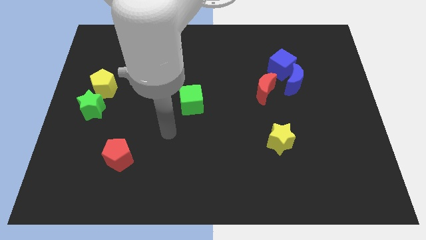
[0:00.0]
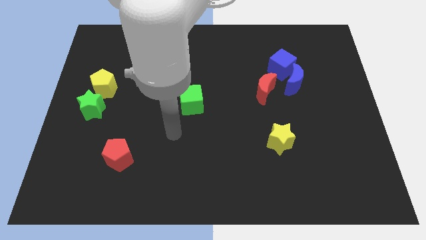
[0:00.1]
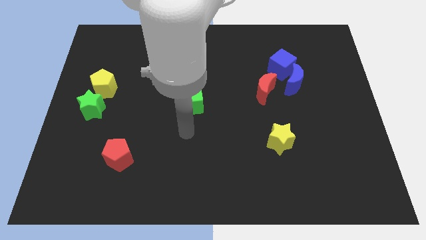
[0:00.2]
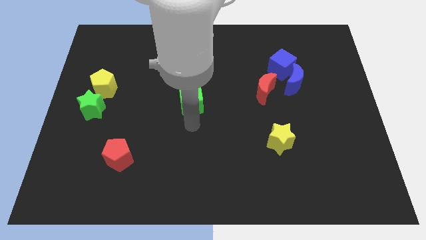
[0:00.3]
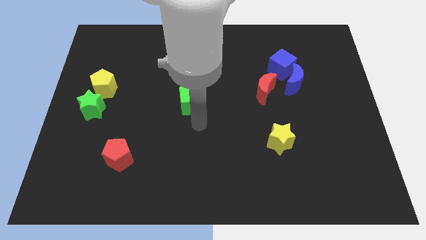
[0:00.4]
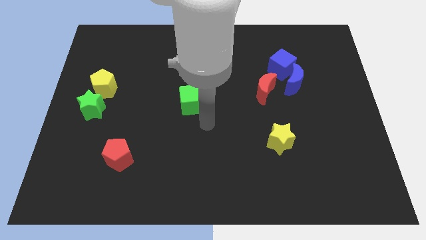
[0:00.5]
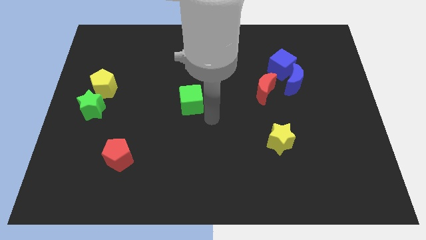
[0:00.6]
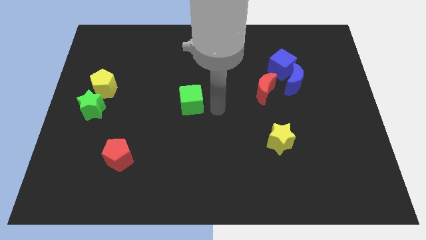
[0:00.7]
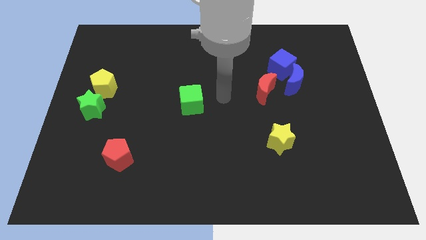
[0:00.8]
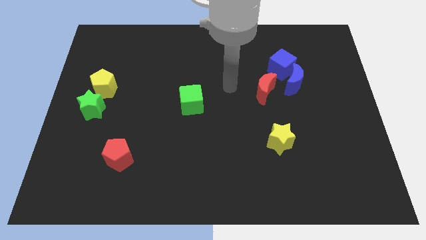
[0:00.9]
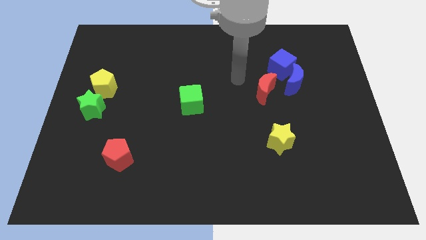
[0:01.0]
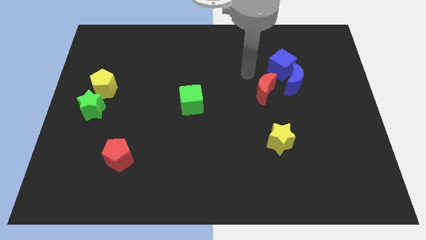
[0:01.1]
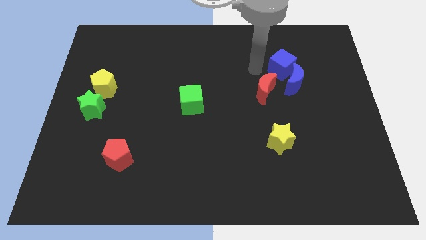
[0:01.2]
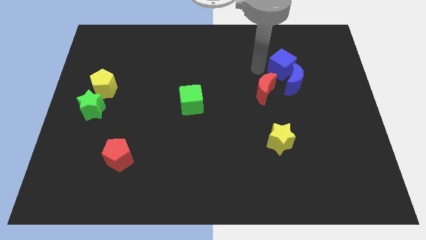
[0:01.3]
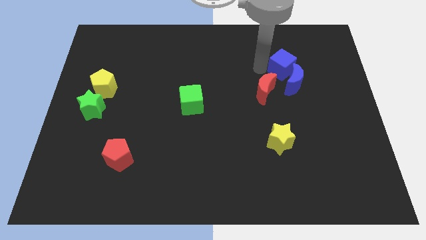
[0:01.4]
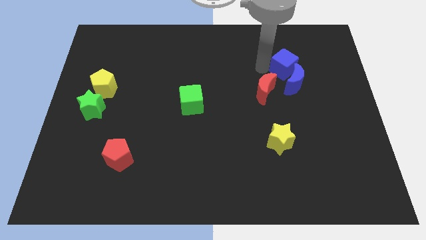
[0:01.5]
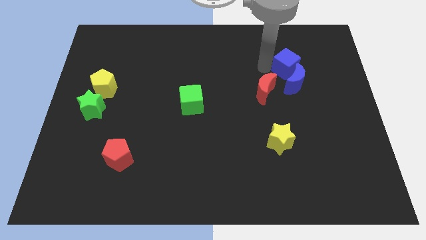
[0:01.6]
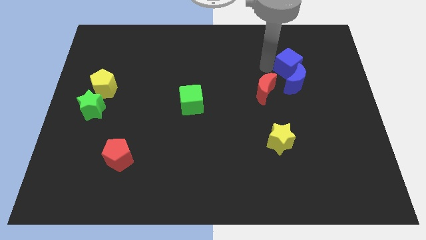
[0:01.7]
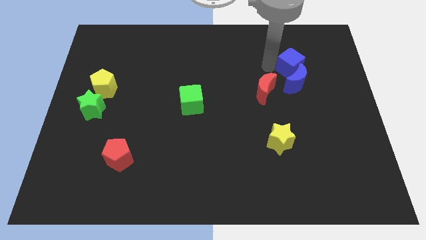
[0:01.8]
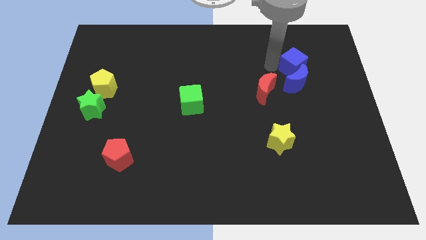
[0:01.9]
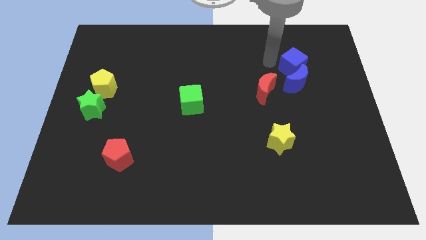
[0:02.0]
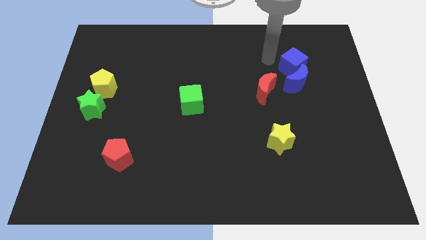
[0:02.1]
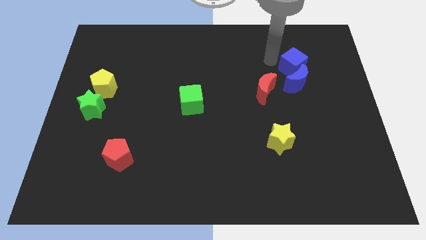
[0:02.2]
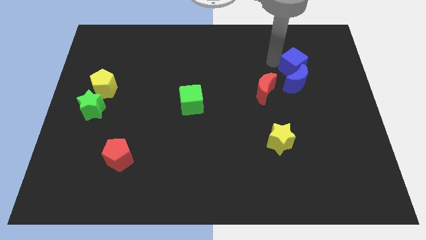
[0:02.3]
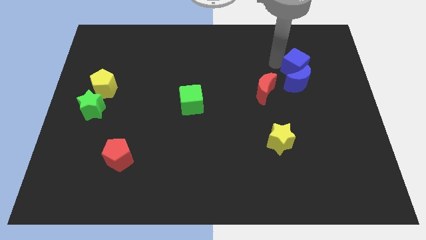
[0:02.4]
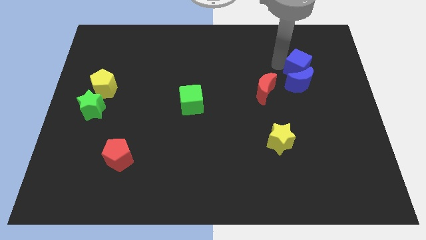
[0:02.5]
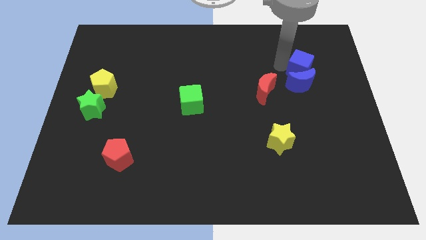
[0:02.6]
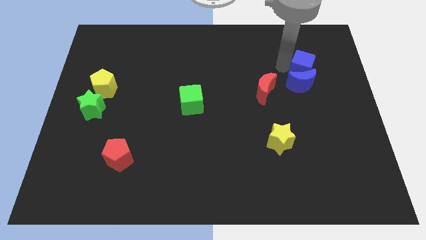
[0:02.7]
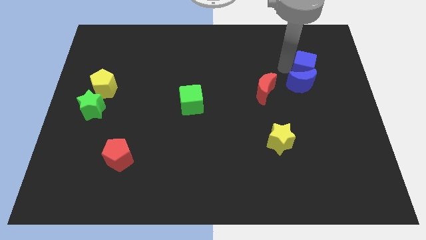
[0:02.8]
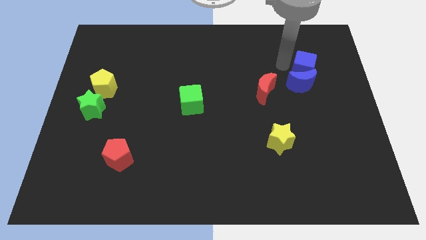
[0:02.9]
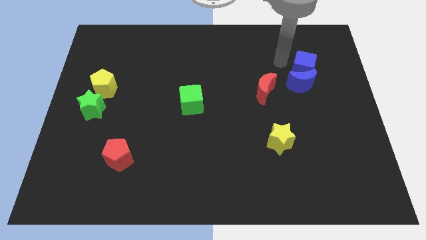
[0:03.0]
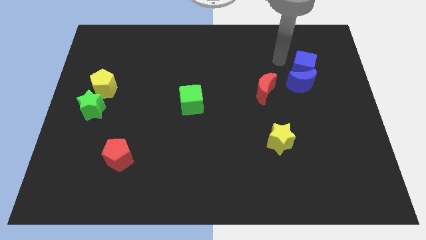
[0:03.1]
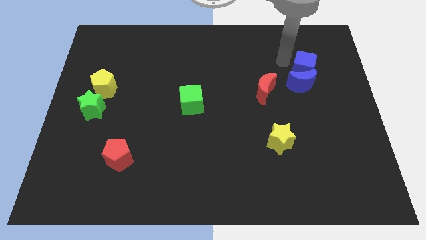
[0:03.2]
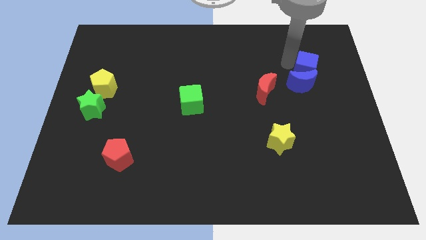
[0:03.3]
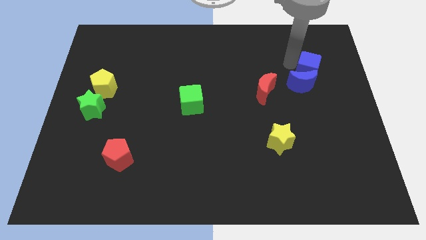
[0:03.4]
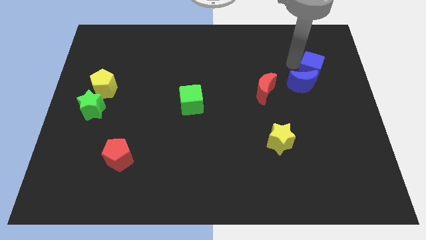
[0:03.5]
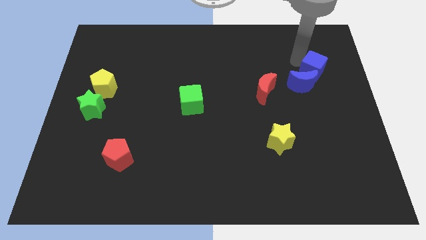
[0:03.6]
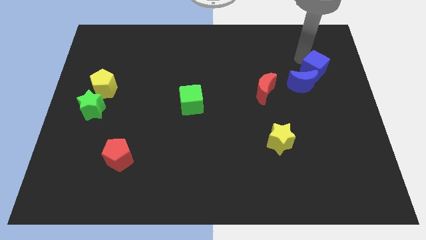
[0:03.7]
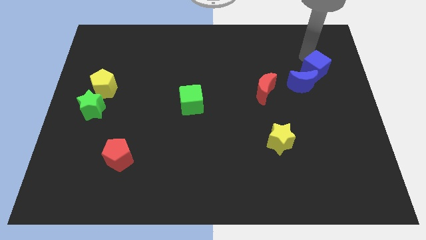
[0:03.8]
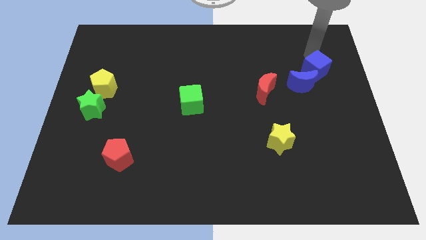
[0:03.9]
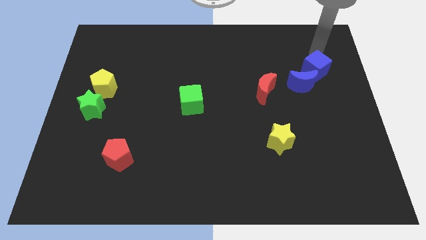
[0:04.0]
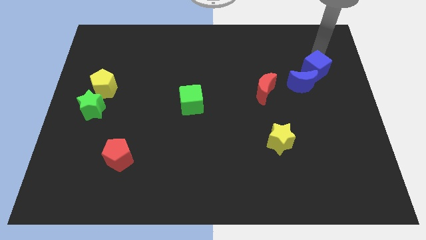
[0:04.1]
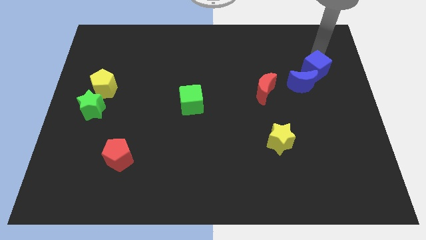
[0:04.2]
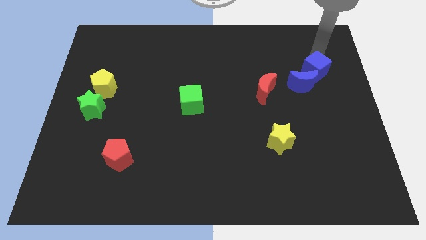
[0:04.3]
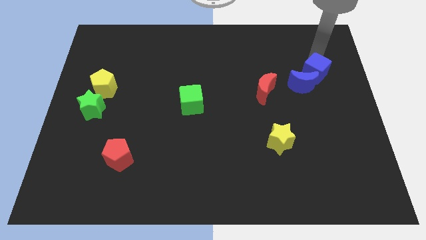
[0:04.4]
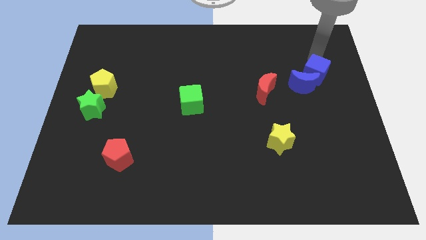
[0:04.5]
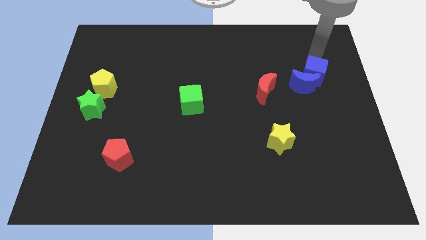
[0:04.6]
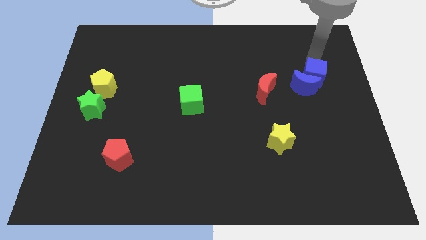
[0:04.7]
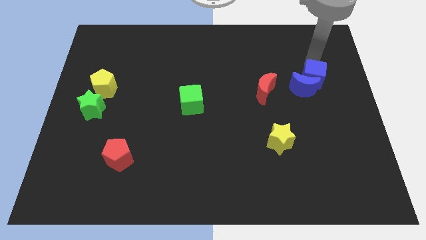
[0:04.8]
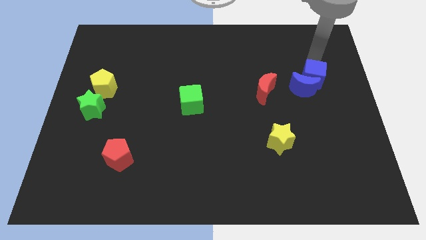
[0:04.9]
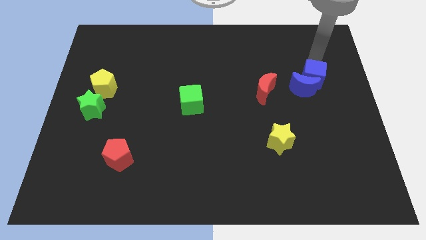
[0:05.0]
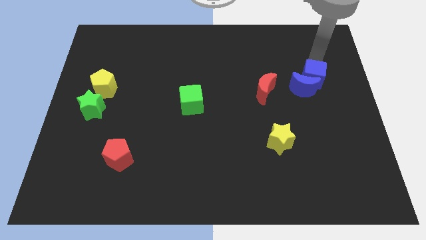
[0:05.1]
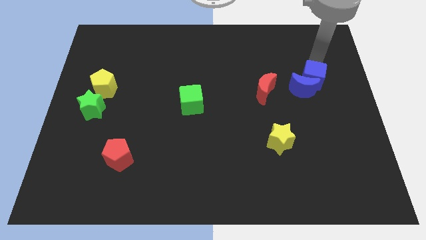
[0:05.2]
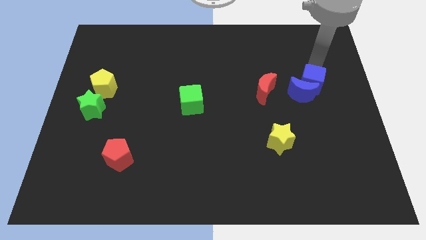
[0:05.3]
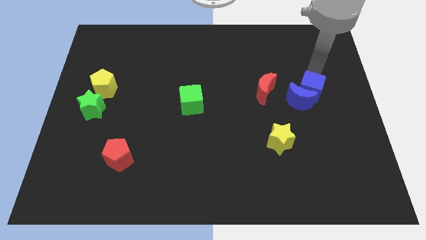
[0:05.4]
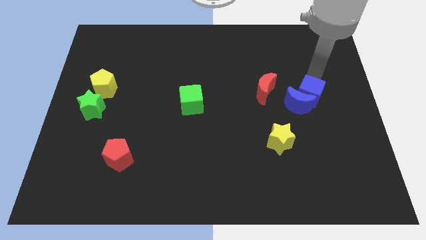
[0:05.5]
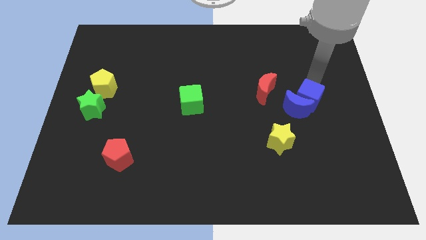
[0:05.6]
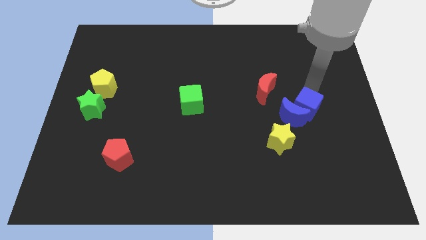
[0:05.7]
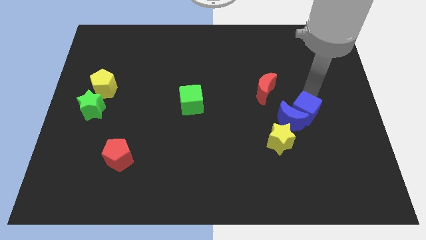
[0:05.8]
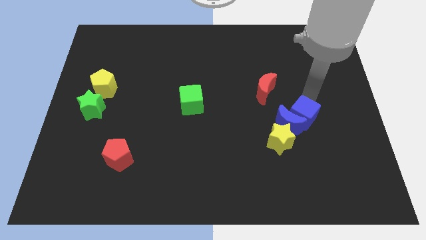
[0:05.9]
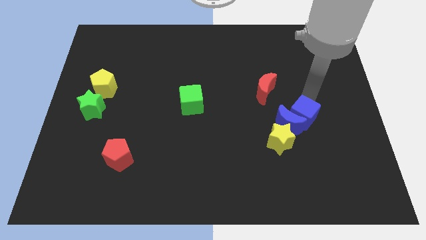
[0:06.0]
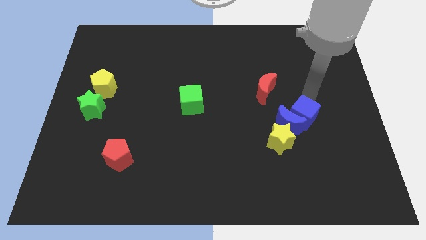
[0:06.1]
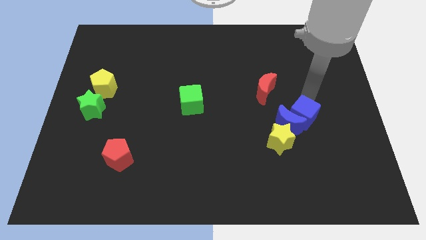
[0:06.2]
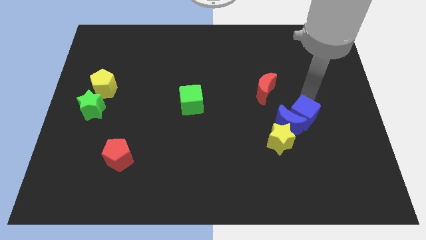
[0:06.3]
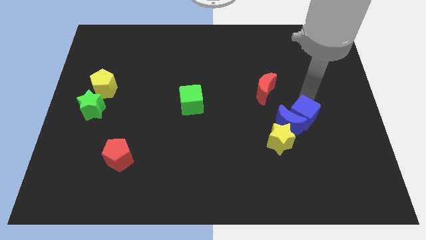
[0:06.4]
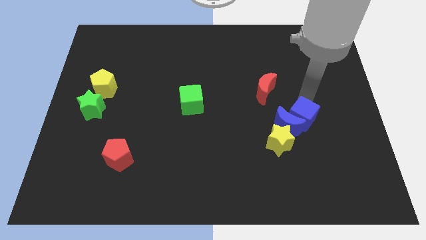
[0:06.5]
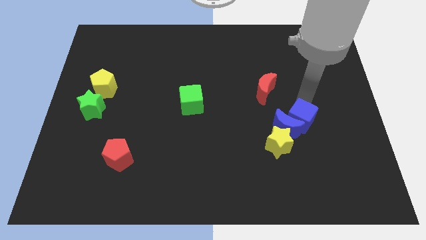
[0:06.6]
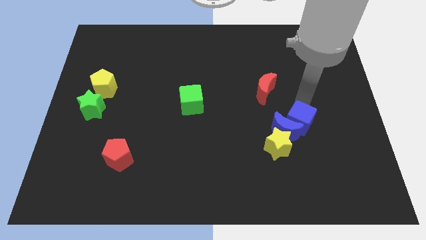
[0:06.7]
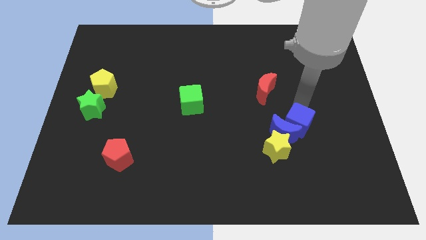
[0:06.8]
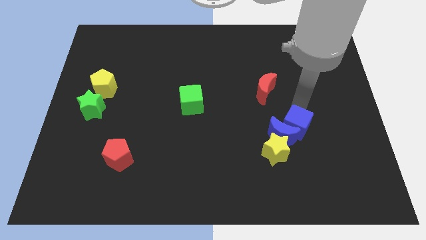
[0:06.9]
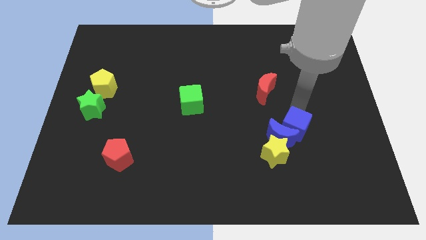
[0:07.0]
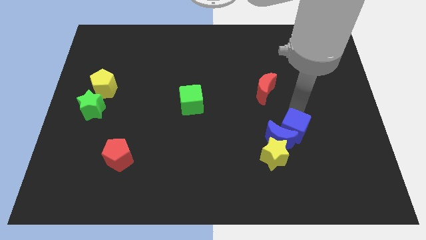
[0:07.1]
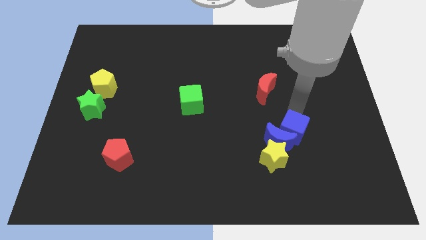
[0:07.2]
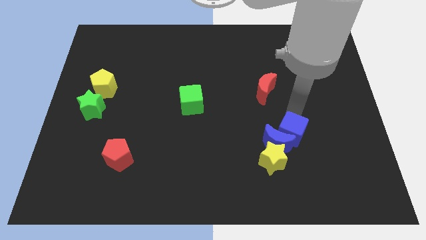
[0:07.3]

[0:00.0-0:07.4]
slide the blue cube downwards
